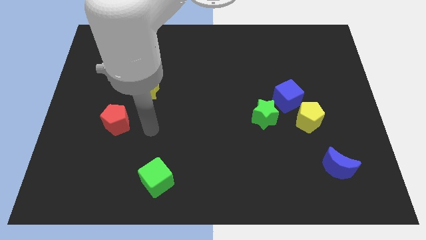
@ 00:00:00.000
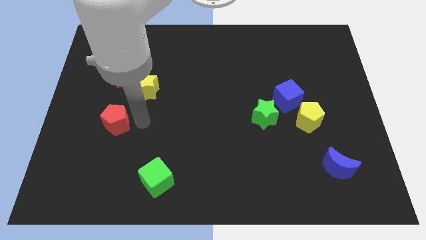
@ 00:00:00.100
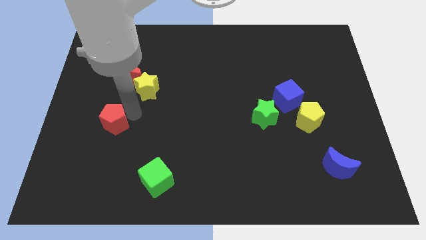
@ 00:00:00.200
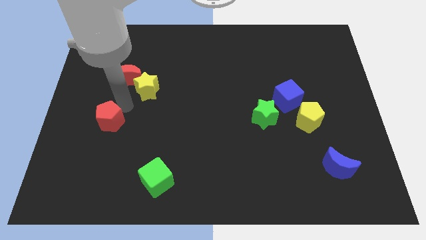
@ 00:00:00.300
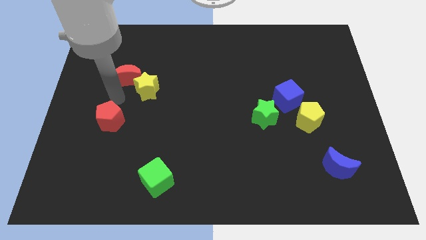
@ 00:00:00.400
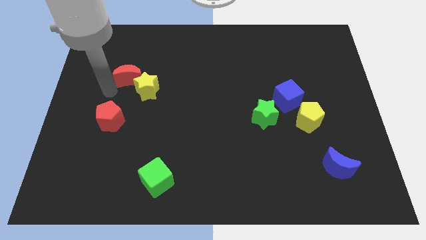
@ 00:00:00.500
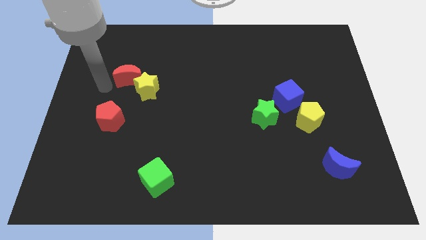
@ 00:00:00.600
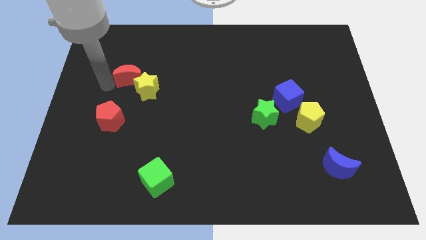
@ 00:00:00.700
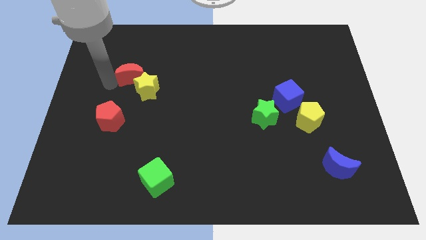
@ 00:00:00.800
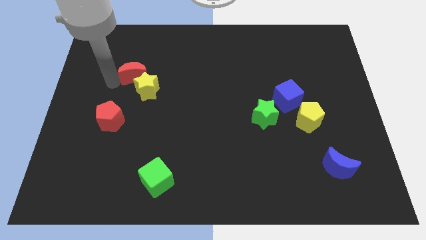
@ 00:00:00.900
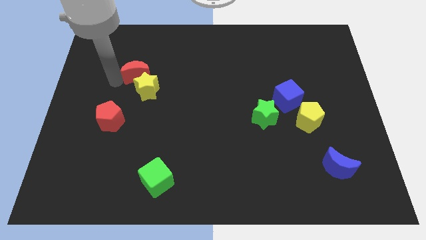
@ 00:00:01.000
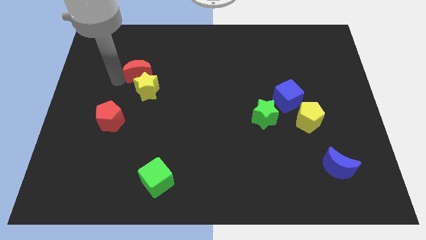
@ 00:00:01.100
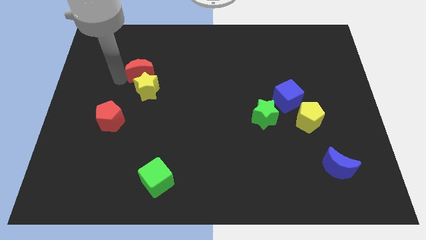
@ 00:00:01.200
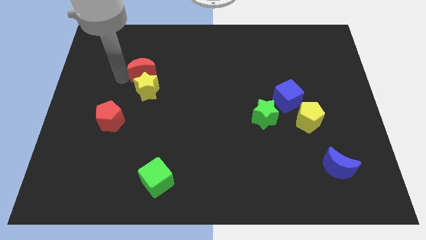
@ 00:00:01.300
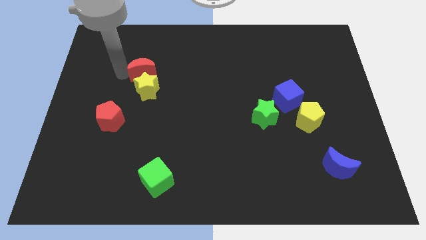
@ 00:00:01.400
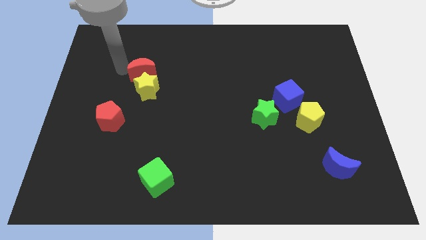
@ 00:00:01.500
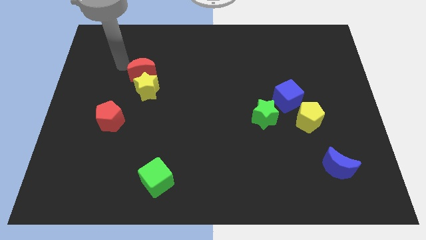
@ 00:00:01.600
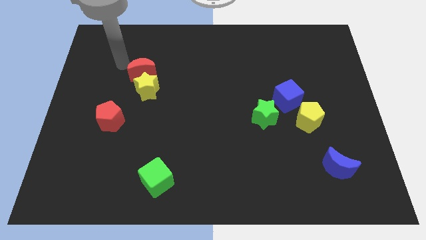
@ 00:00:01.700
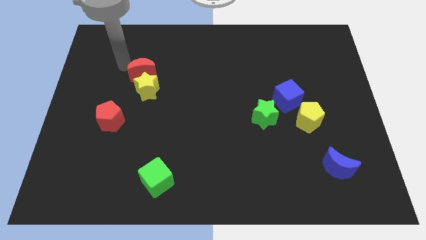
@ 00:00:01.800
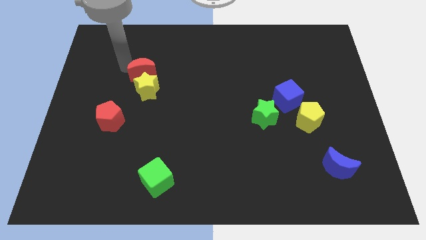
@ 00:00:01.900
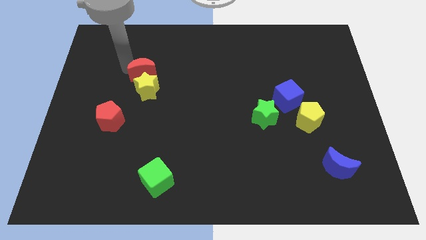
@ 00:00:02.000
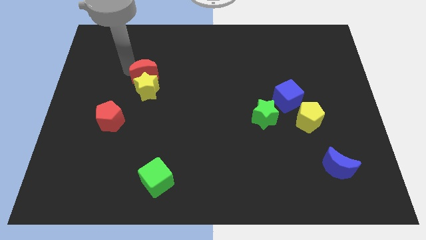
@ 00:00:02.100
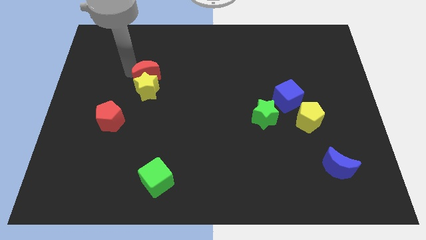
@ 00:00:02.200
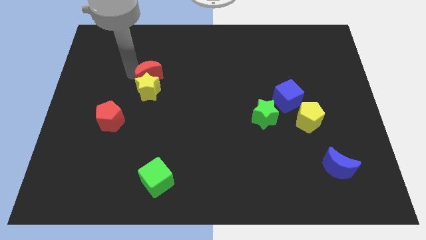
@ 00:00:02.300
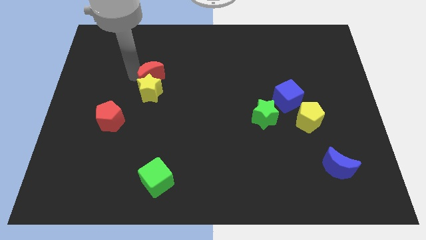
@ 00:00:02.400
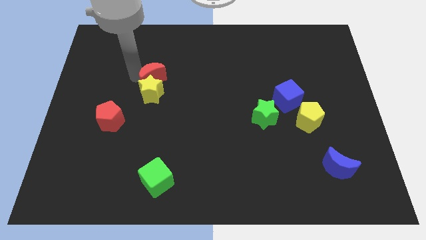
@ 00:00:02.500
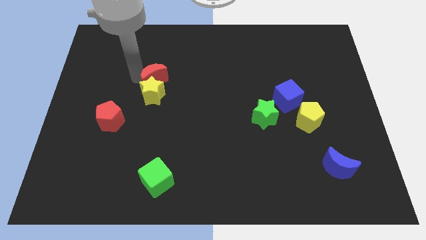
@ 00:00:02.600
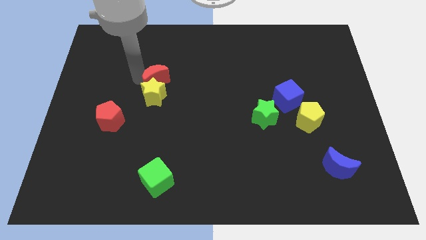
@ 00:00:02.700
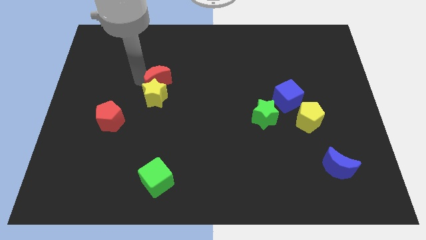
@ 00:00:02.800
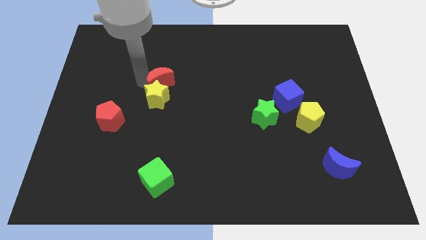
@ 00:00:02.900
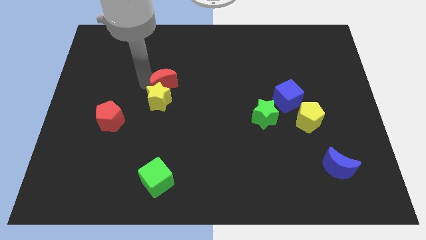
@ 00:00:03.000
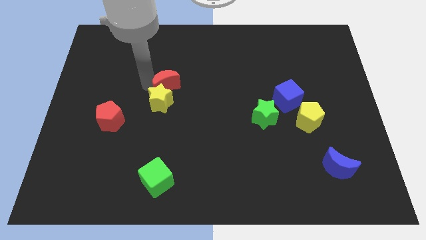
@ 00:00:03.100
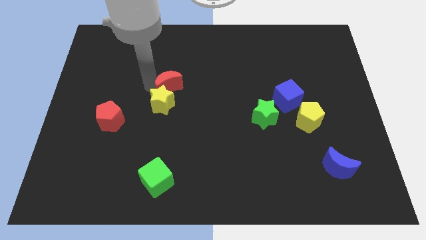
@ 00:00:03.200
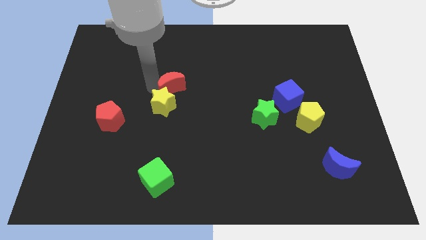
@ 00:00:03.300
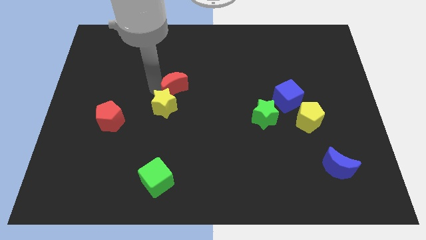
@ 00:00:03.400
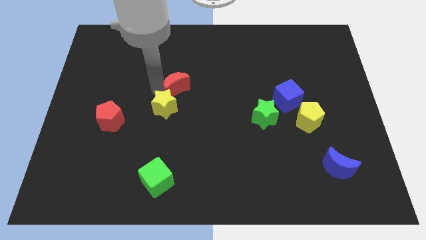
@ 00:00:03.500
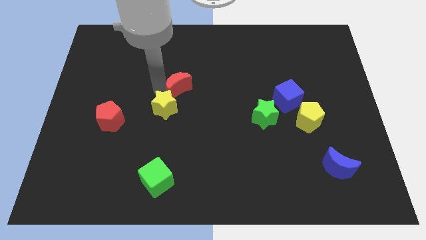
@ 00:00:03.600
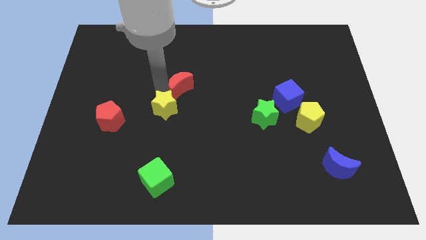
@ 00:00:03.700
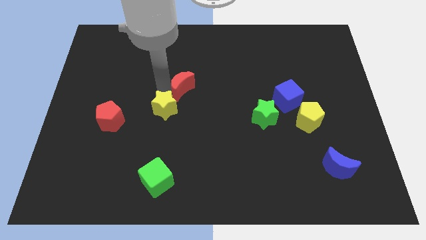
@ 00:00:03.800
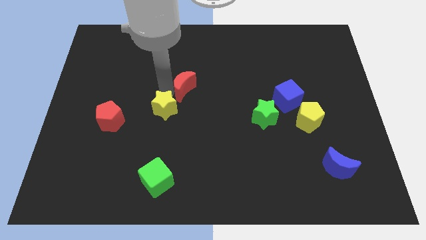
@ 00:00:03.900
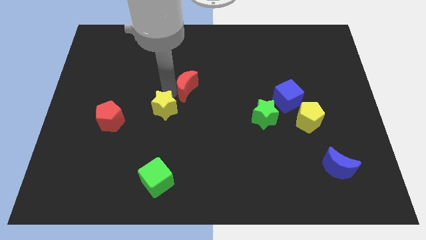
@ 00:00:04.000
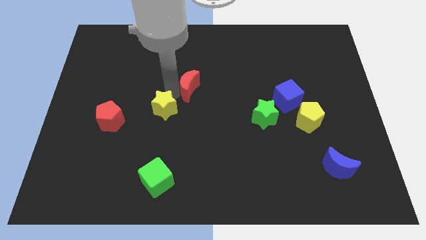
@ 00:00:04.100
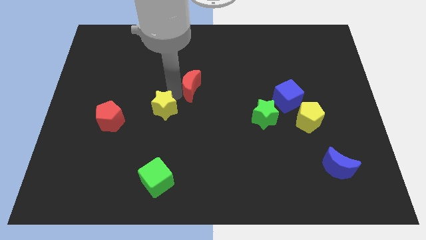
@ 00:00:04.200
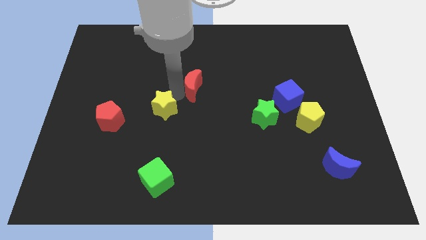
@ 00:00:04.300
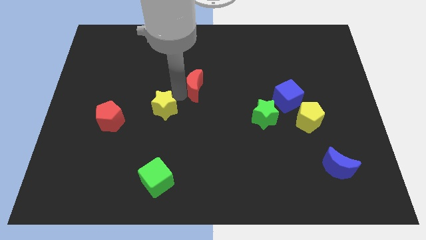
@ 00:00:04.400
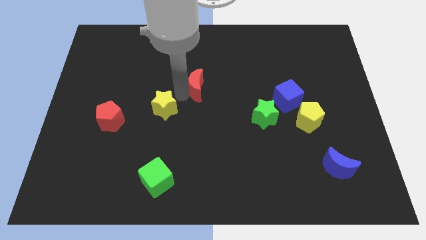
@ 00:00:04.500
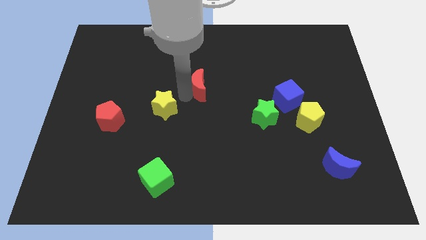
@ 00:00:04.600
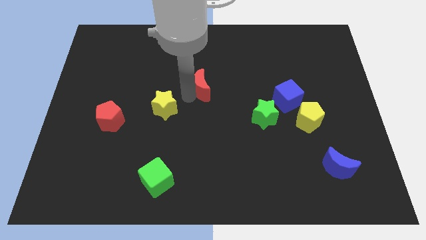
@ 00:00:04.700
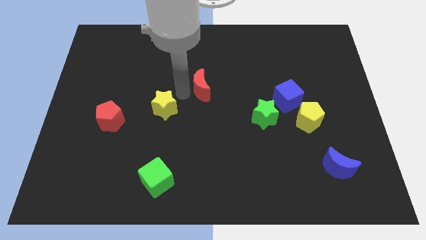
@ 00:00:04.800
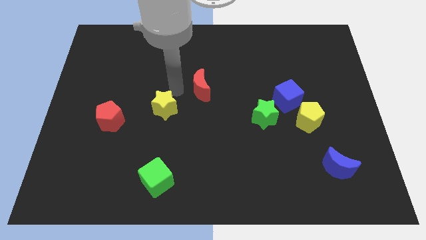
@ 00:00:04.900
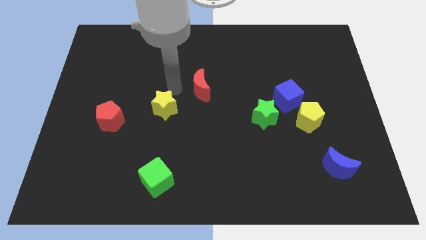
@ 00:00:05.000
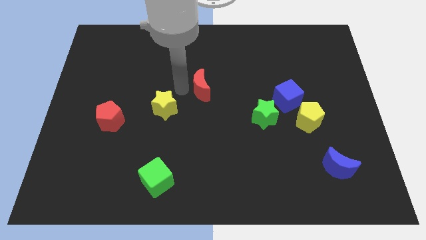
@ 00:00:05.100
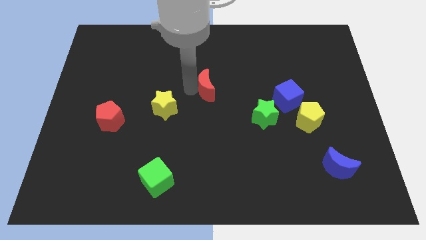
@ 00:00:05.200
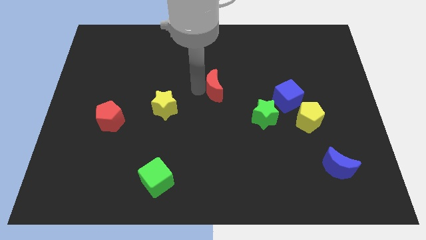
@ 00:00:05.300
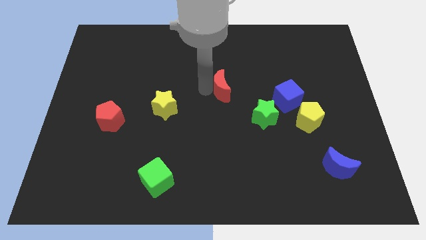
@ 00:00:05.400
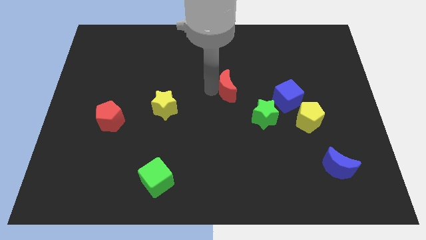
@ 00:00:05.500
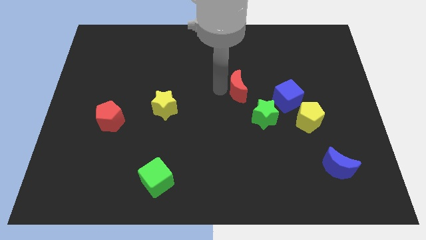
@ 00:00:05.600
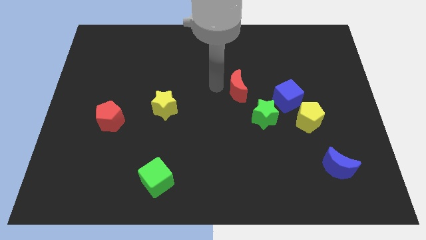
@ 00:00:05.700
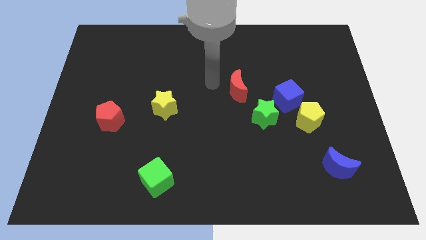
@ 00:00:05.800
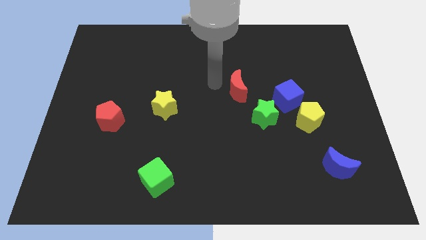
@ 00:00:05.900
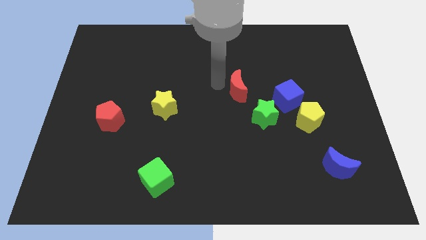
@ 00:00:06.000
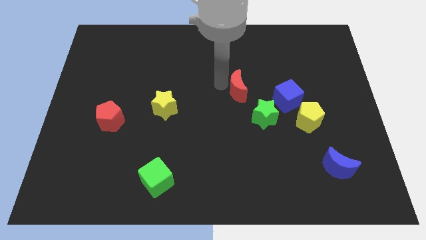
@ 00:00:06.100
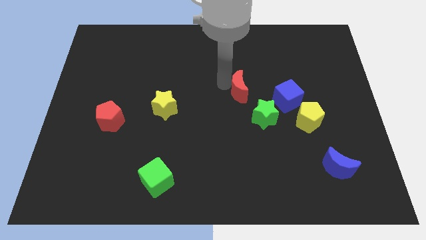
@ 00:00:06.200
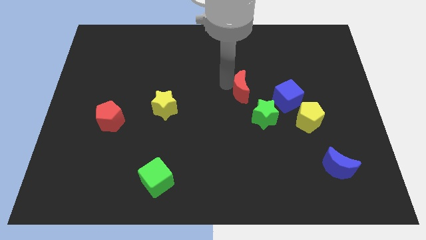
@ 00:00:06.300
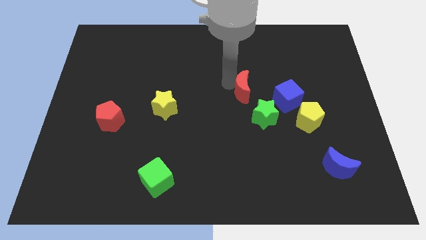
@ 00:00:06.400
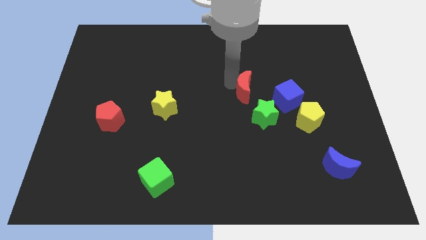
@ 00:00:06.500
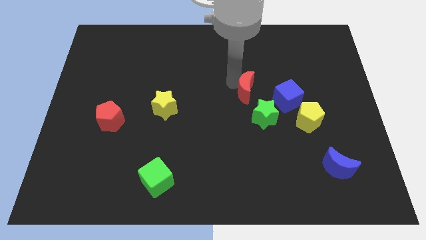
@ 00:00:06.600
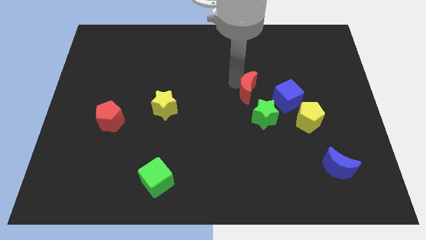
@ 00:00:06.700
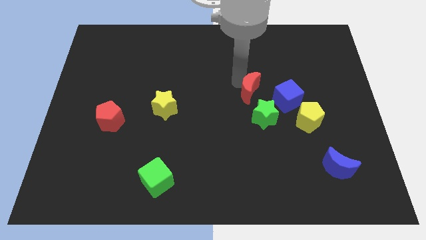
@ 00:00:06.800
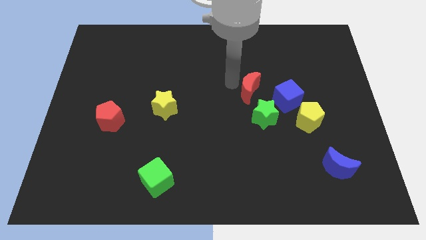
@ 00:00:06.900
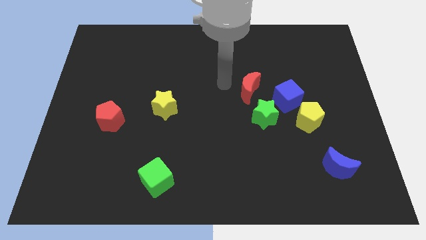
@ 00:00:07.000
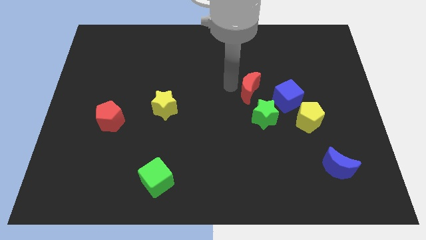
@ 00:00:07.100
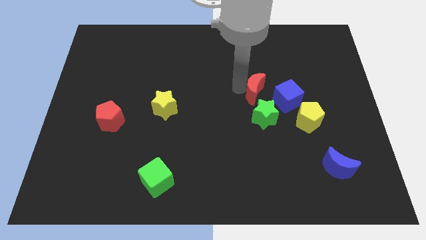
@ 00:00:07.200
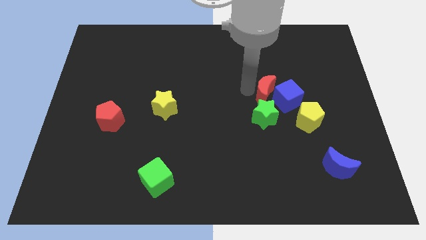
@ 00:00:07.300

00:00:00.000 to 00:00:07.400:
push the red moon towards the blue cube
